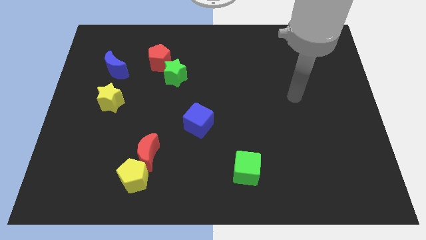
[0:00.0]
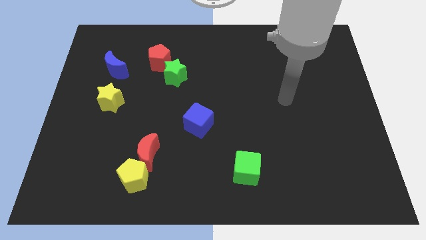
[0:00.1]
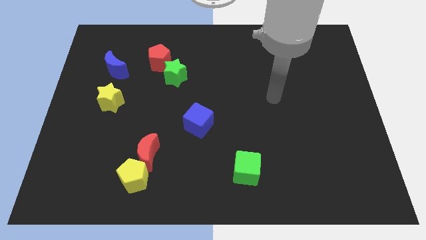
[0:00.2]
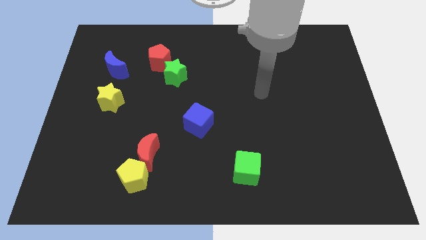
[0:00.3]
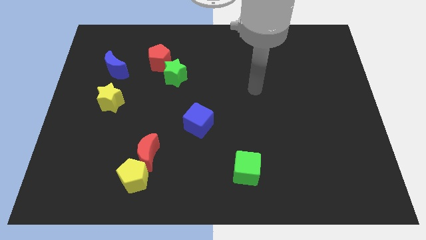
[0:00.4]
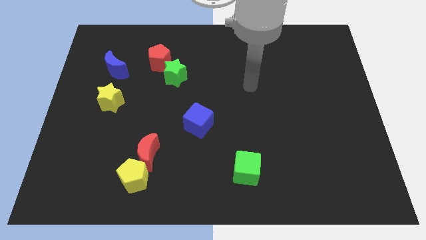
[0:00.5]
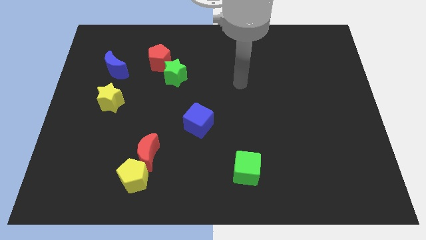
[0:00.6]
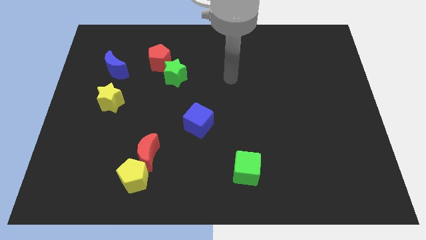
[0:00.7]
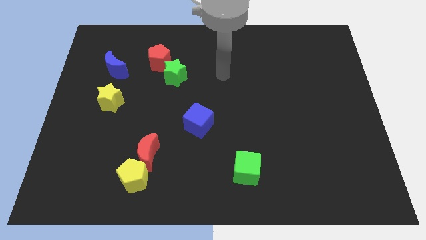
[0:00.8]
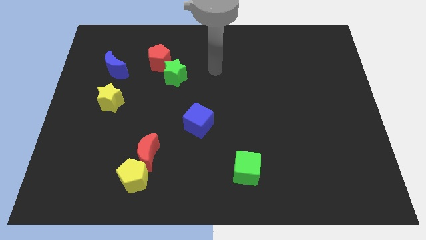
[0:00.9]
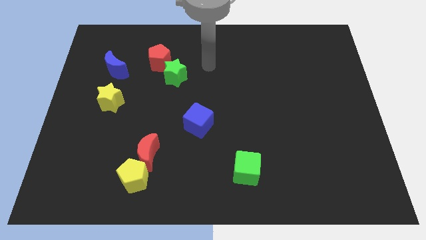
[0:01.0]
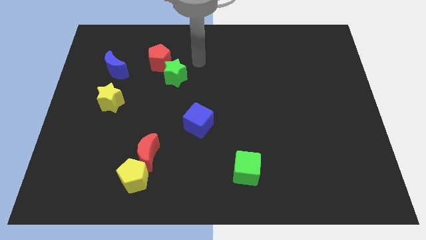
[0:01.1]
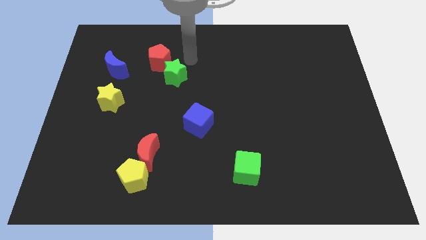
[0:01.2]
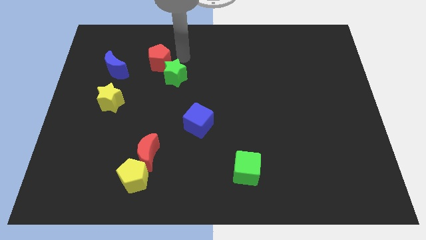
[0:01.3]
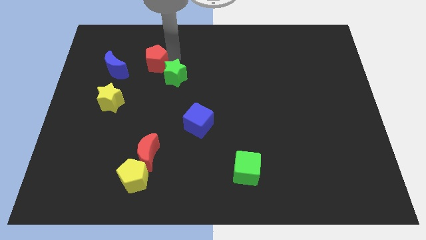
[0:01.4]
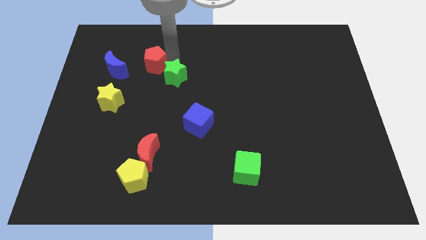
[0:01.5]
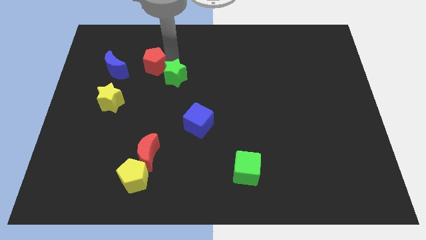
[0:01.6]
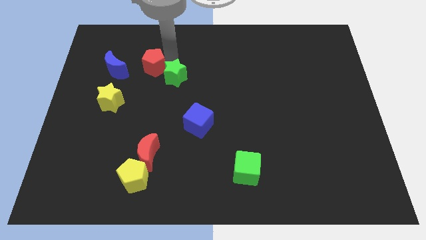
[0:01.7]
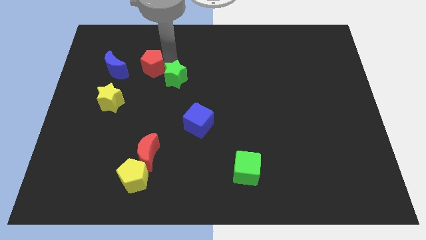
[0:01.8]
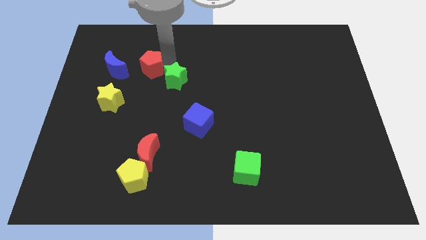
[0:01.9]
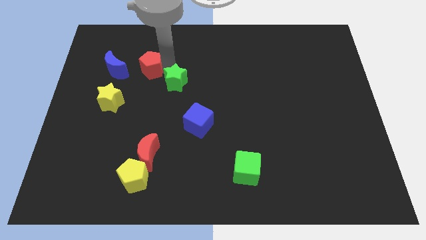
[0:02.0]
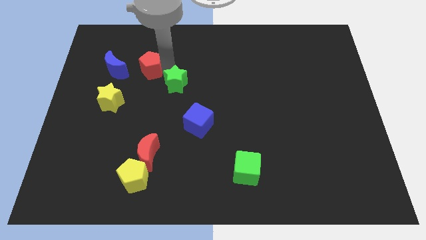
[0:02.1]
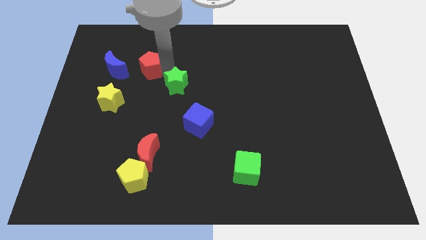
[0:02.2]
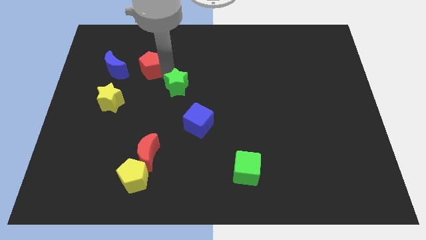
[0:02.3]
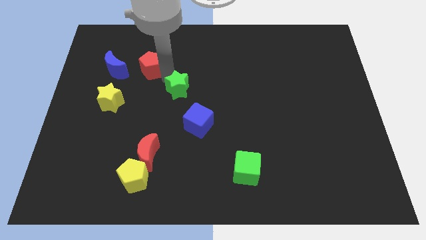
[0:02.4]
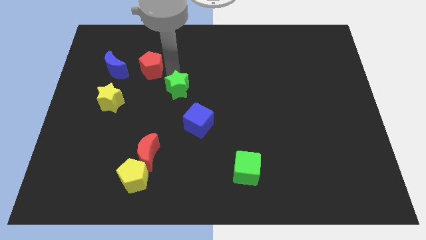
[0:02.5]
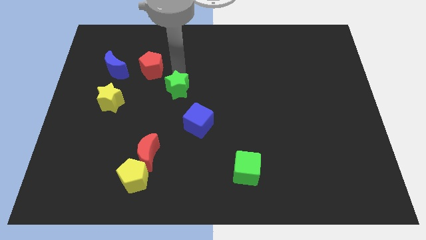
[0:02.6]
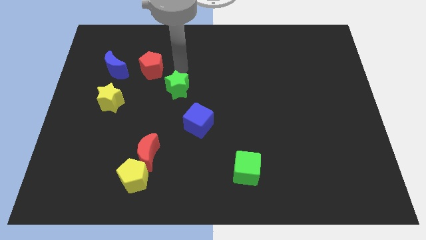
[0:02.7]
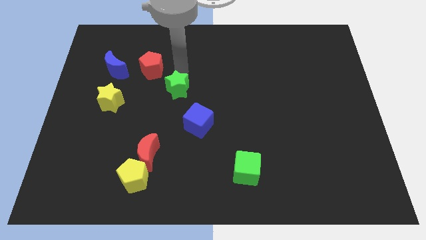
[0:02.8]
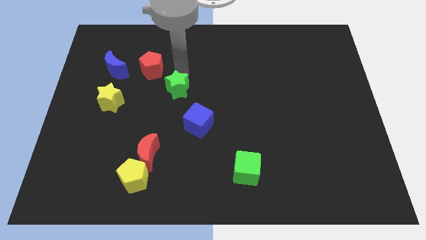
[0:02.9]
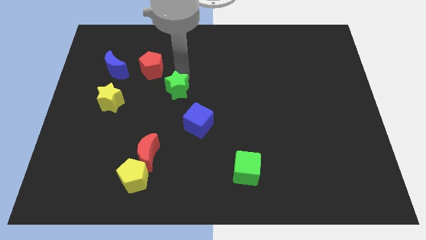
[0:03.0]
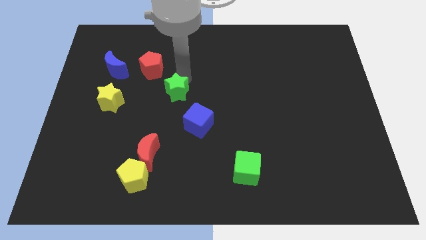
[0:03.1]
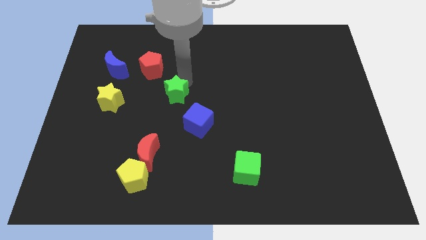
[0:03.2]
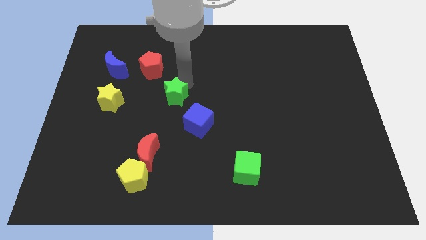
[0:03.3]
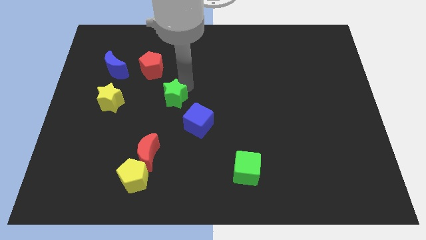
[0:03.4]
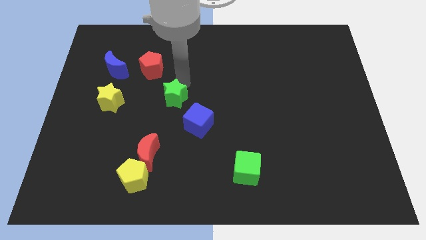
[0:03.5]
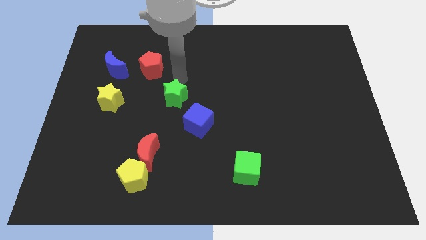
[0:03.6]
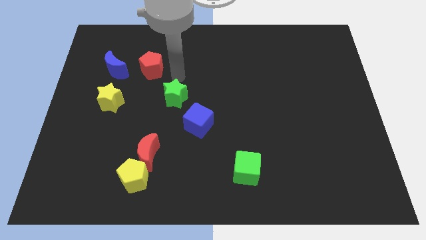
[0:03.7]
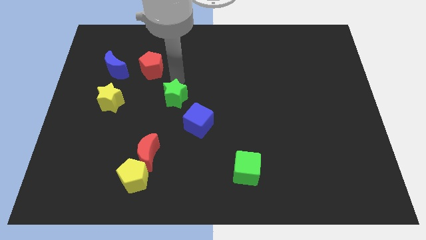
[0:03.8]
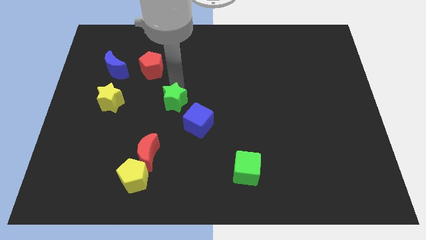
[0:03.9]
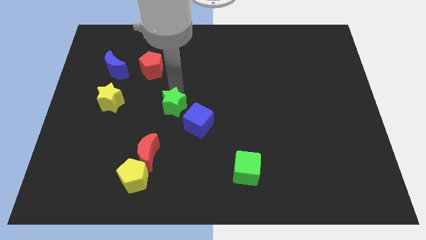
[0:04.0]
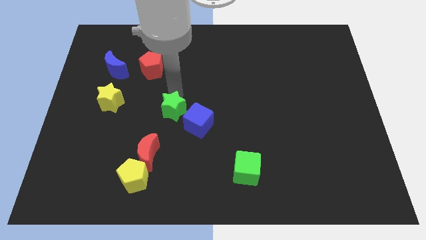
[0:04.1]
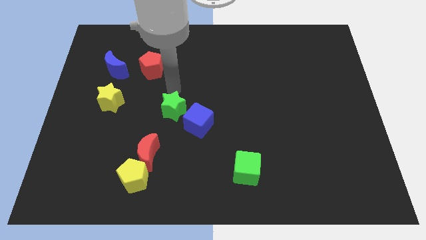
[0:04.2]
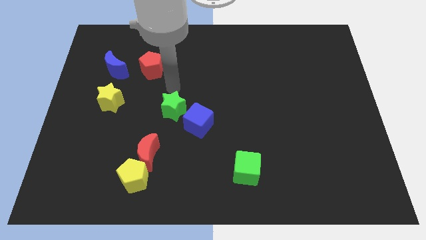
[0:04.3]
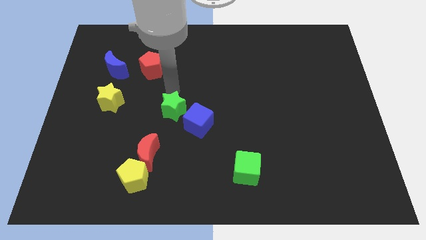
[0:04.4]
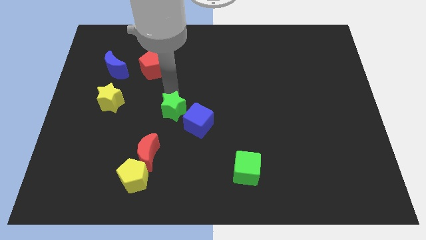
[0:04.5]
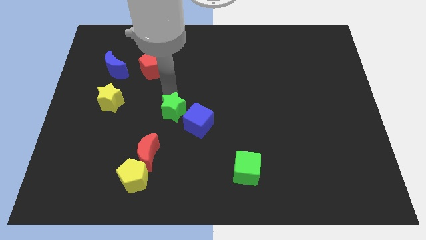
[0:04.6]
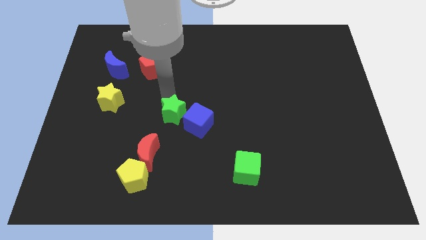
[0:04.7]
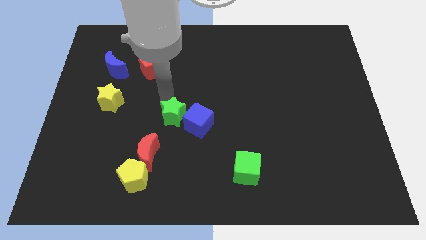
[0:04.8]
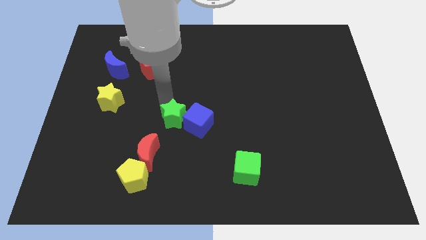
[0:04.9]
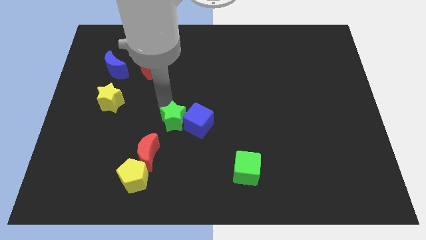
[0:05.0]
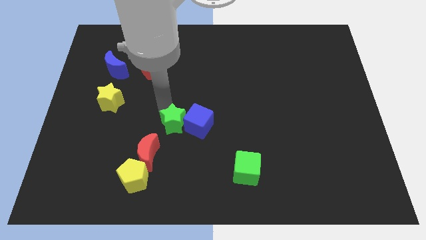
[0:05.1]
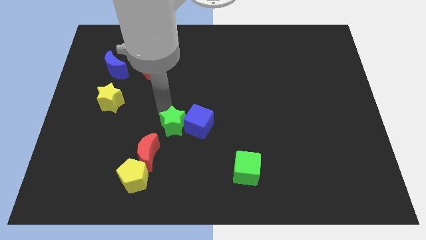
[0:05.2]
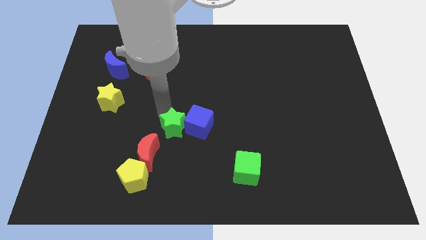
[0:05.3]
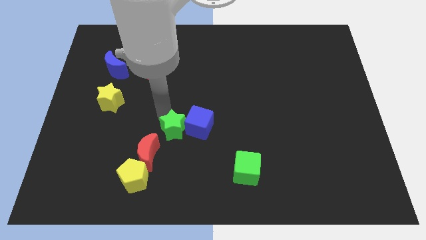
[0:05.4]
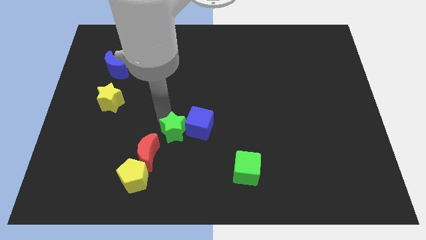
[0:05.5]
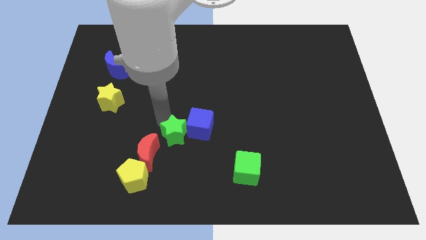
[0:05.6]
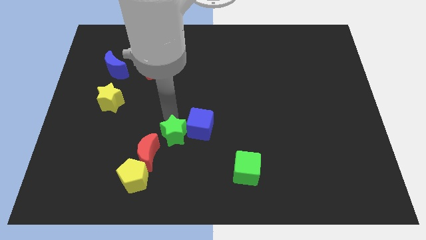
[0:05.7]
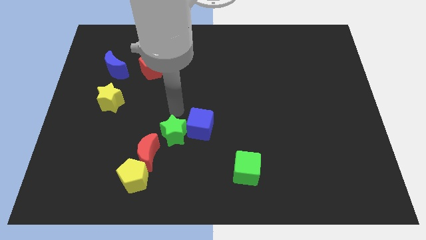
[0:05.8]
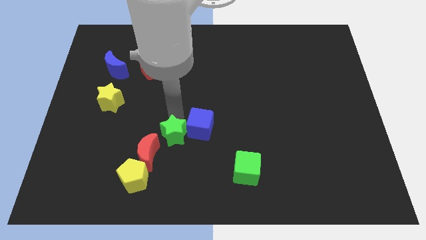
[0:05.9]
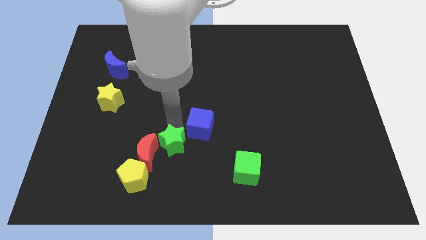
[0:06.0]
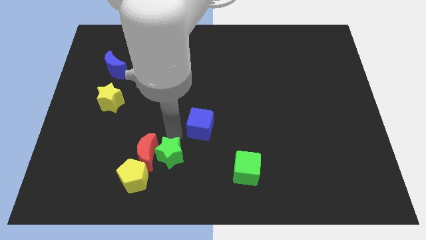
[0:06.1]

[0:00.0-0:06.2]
put the green star to the bottom right of the red moon

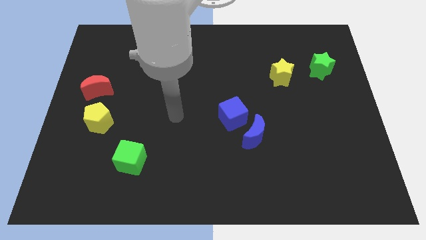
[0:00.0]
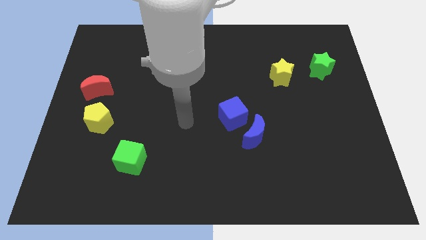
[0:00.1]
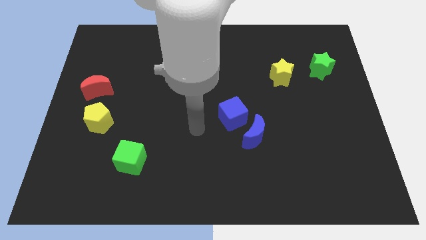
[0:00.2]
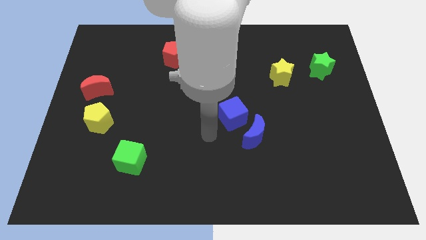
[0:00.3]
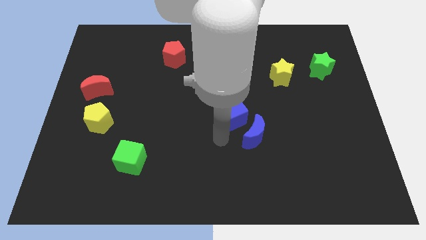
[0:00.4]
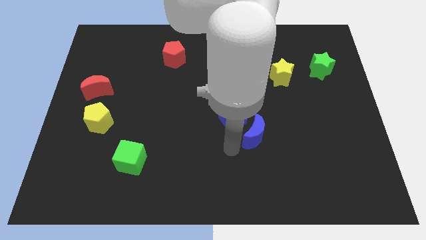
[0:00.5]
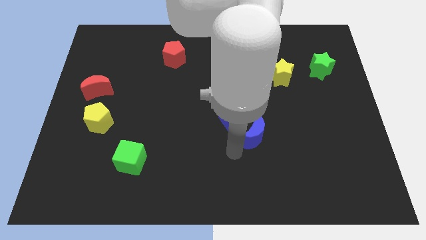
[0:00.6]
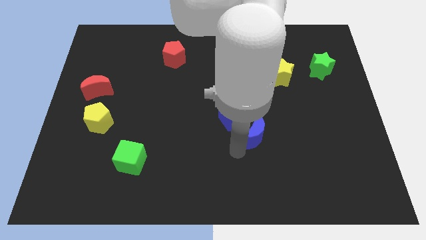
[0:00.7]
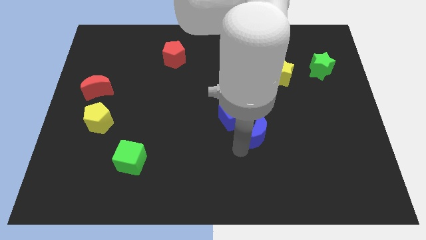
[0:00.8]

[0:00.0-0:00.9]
put the blue moon right of the blue cube
